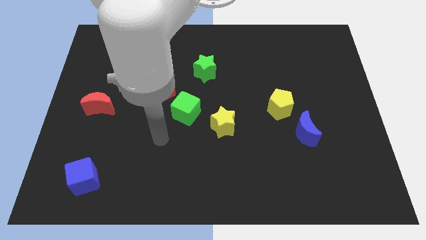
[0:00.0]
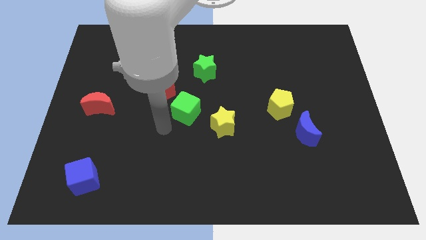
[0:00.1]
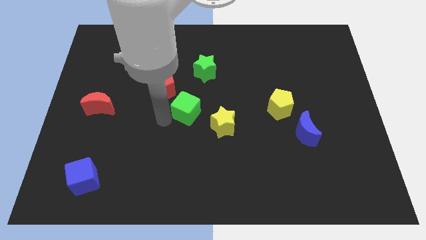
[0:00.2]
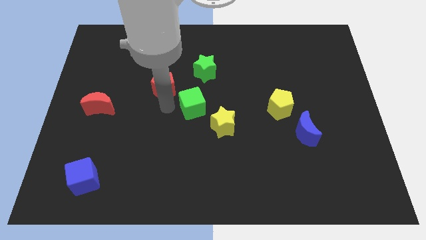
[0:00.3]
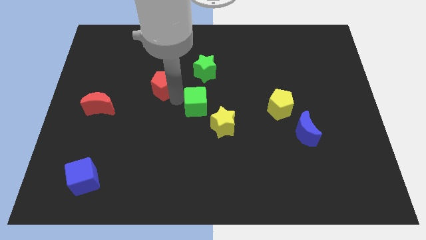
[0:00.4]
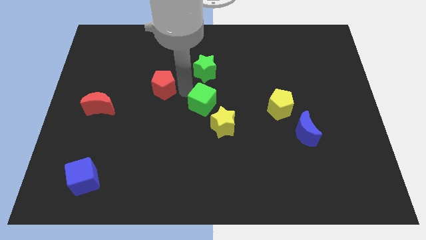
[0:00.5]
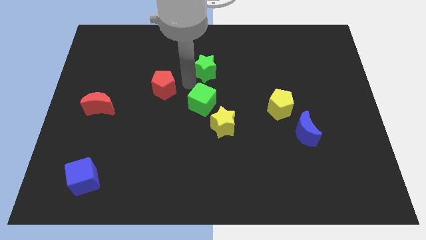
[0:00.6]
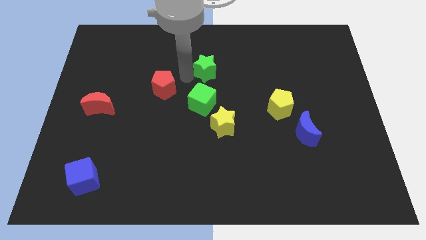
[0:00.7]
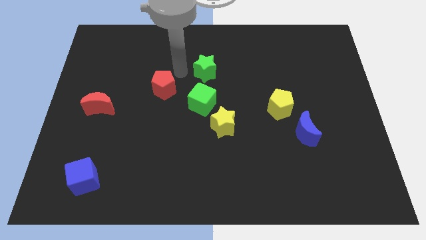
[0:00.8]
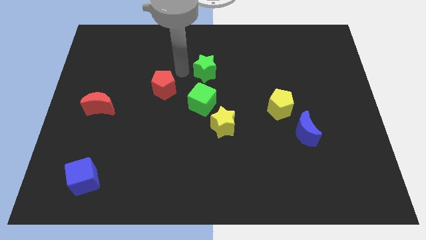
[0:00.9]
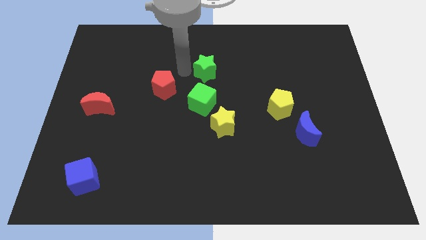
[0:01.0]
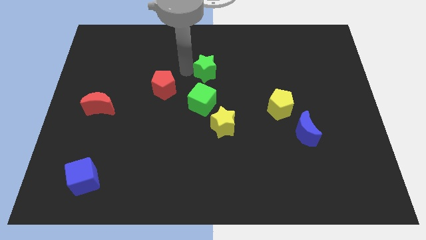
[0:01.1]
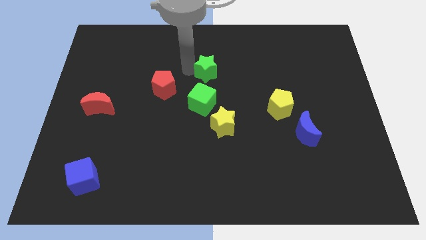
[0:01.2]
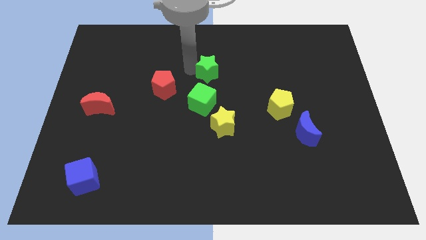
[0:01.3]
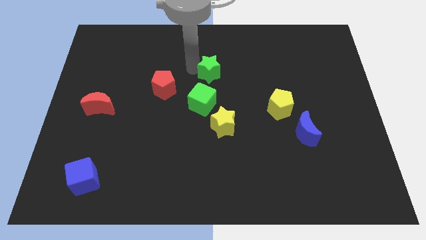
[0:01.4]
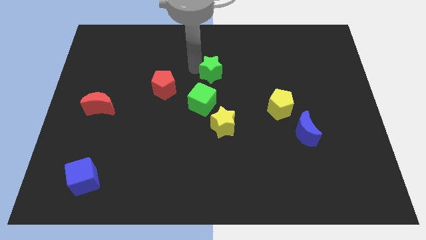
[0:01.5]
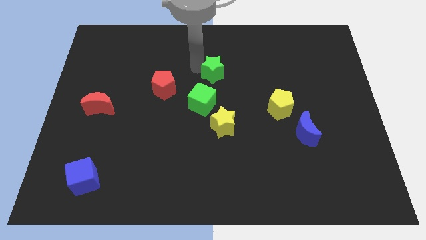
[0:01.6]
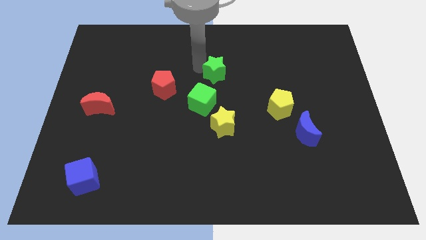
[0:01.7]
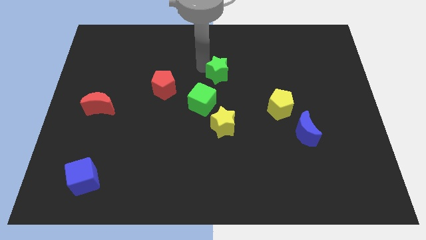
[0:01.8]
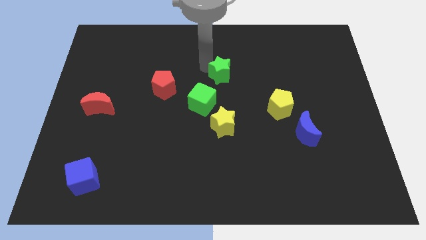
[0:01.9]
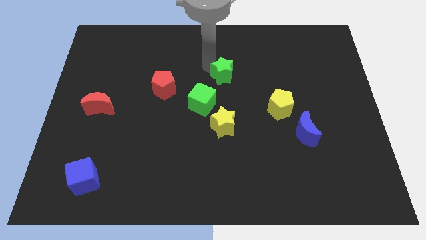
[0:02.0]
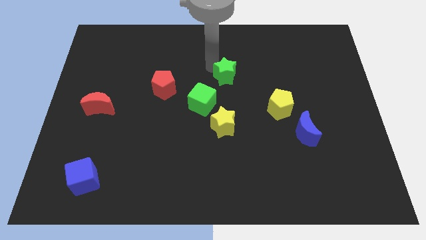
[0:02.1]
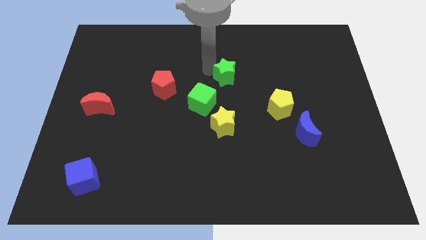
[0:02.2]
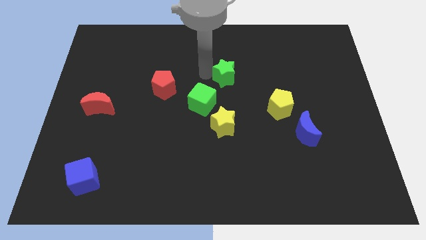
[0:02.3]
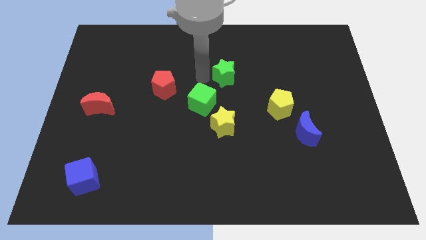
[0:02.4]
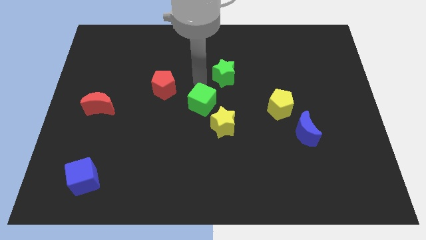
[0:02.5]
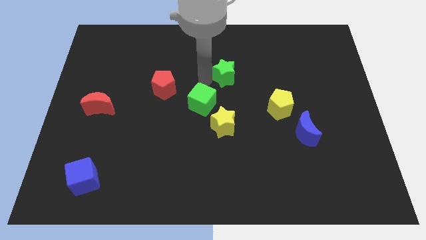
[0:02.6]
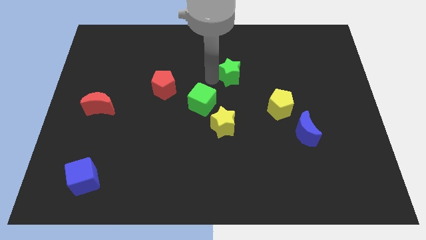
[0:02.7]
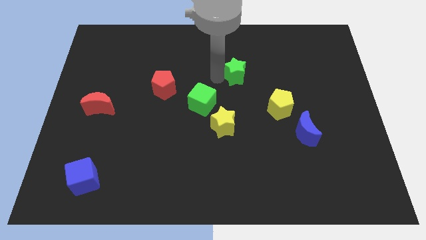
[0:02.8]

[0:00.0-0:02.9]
move the green star somewhat to the right

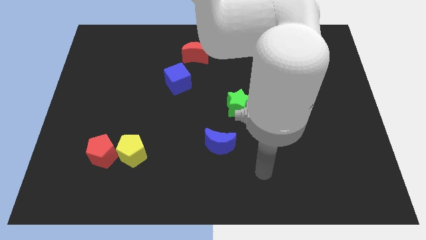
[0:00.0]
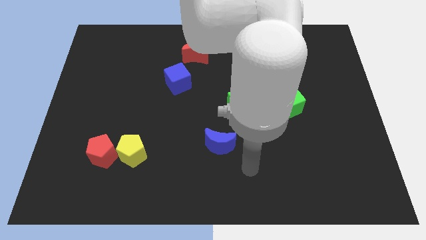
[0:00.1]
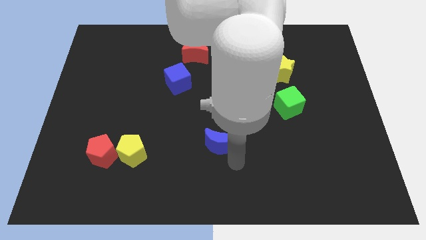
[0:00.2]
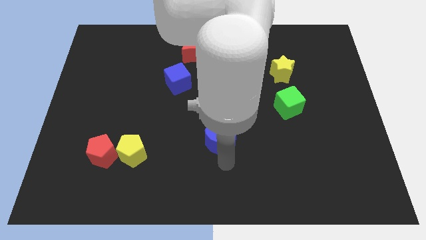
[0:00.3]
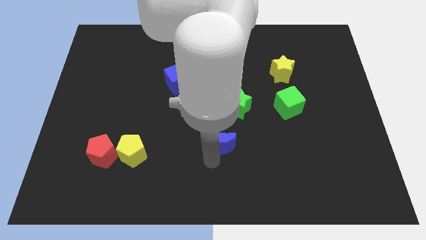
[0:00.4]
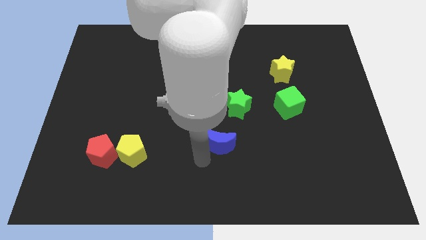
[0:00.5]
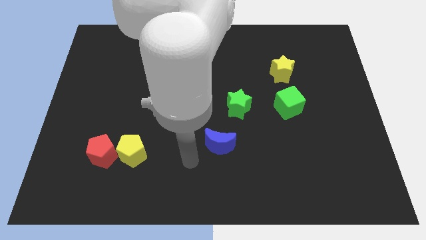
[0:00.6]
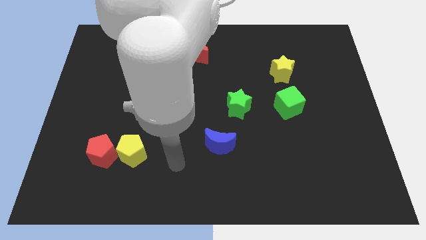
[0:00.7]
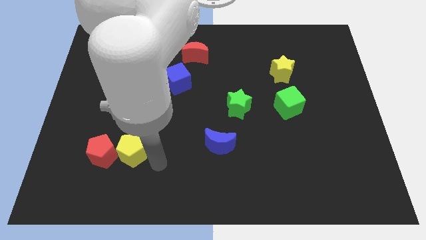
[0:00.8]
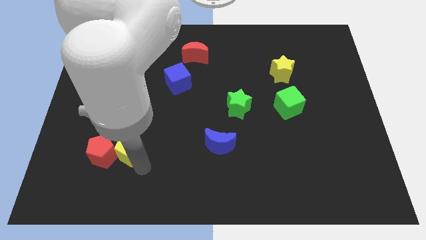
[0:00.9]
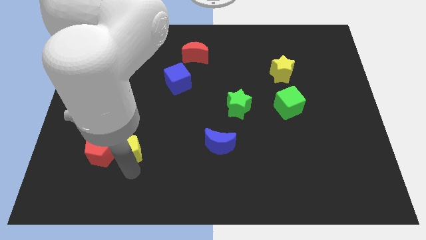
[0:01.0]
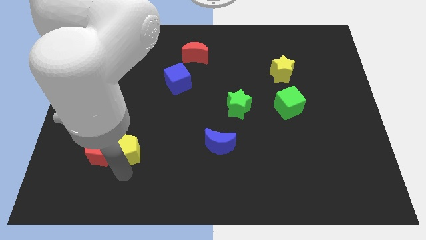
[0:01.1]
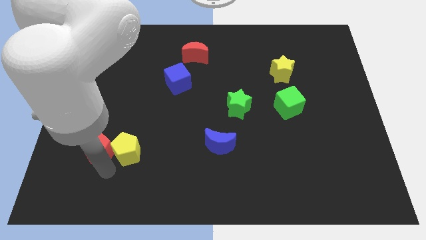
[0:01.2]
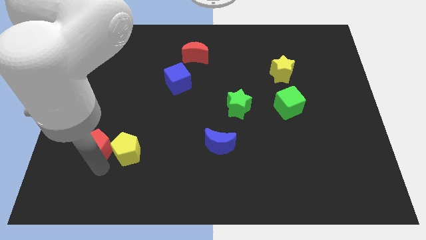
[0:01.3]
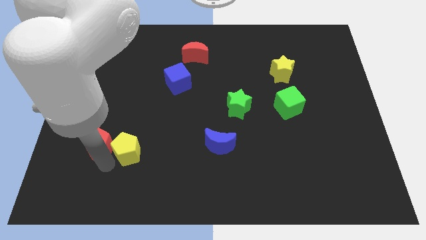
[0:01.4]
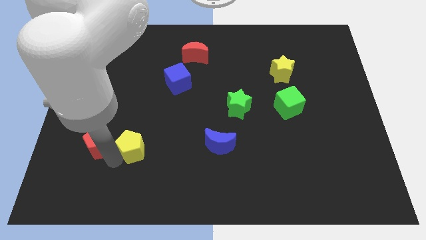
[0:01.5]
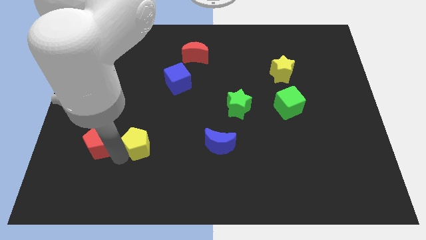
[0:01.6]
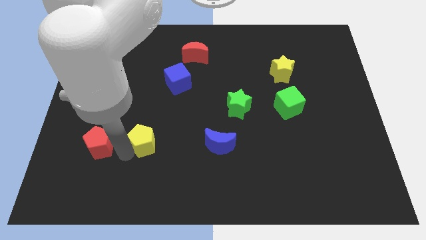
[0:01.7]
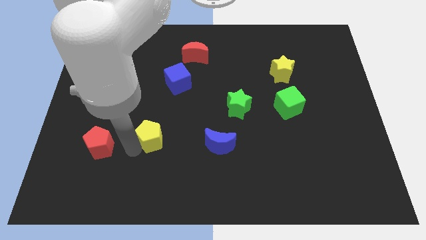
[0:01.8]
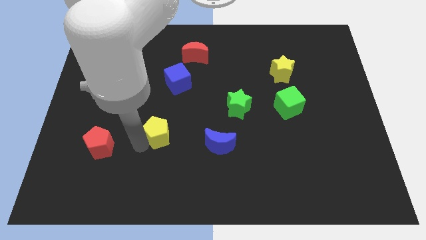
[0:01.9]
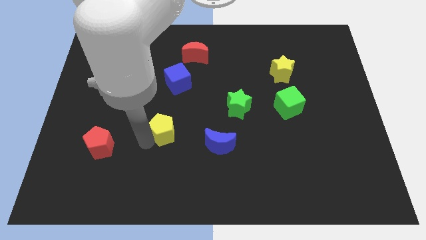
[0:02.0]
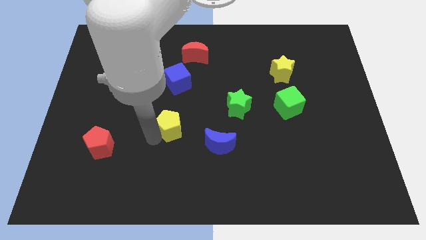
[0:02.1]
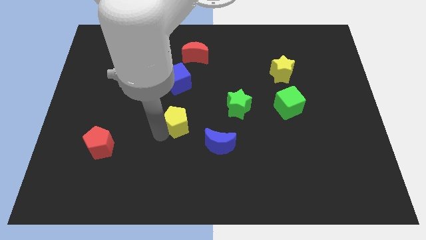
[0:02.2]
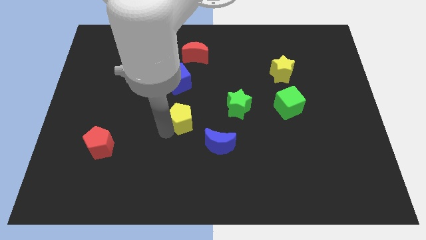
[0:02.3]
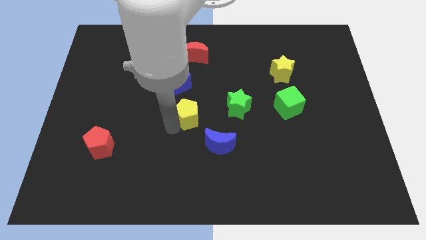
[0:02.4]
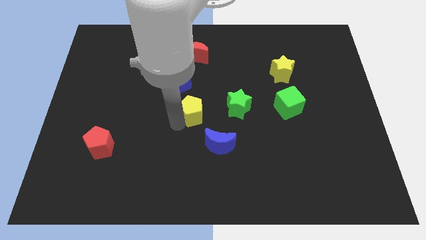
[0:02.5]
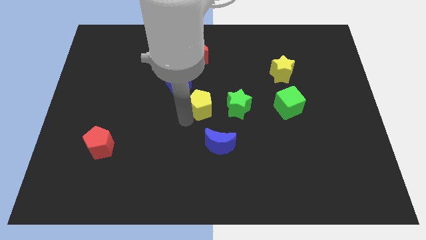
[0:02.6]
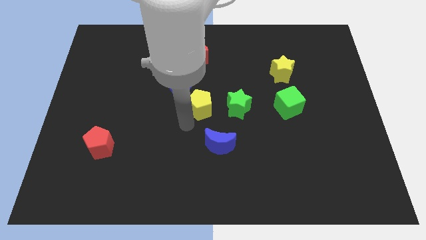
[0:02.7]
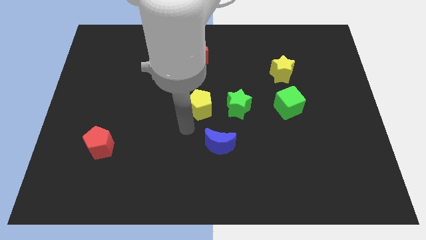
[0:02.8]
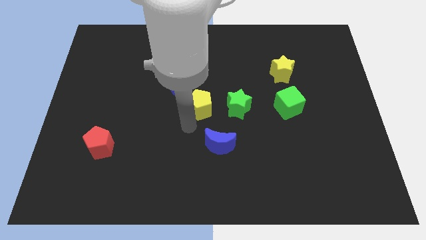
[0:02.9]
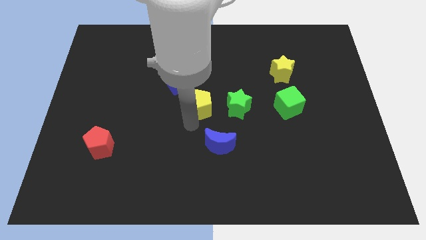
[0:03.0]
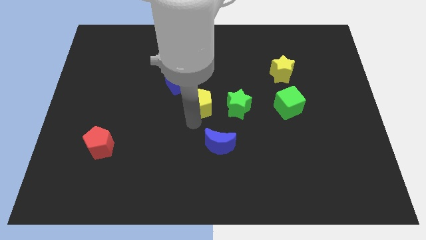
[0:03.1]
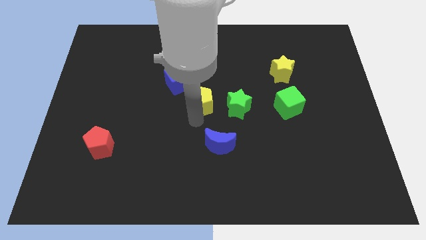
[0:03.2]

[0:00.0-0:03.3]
slide the yellow pentagon upwards and right

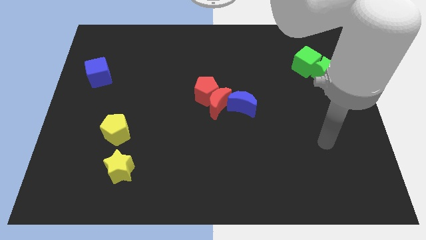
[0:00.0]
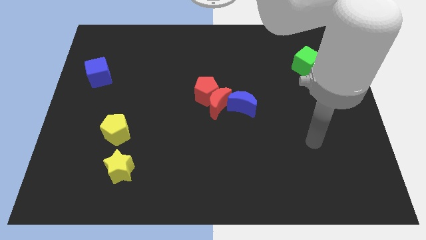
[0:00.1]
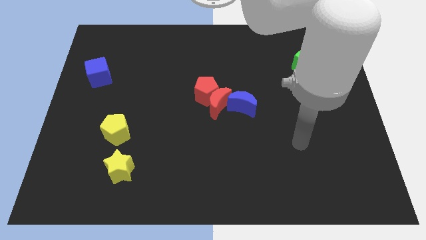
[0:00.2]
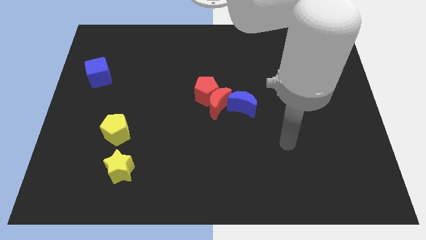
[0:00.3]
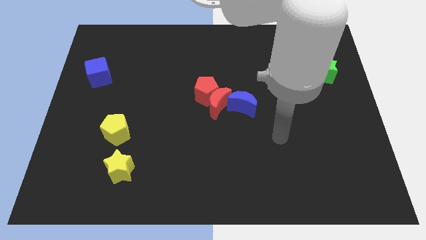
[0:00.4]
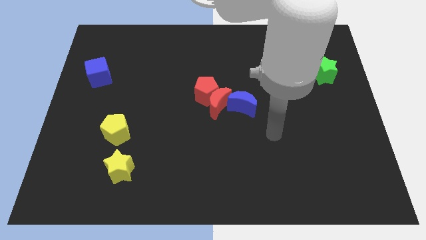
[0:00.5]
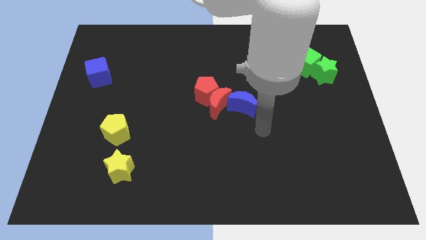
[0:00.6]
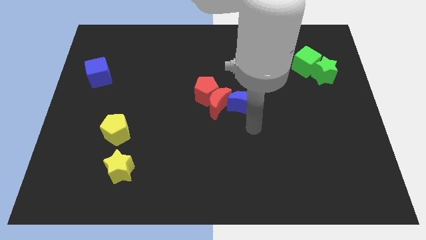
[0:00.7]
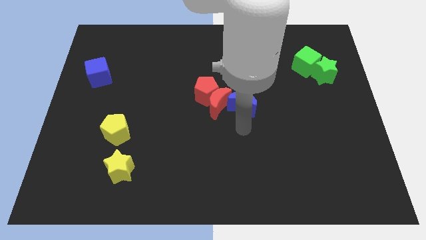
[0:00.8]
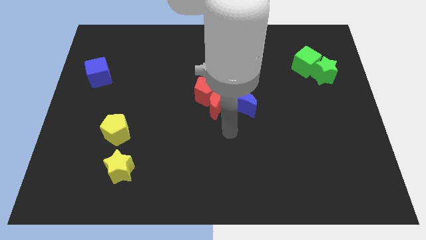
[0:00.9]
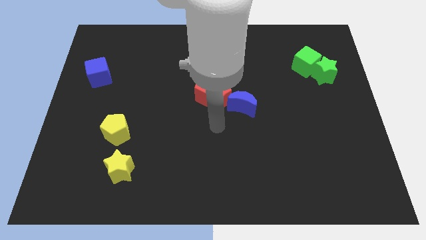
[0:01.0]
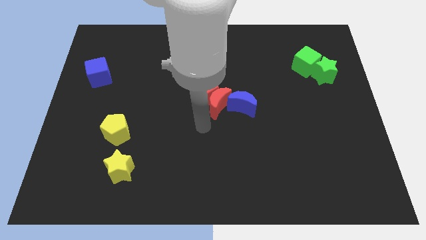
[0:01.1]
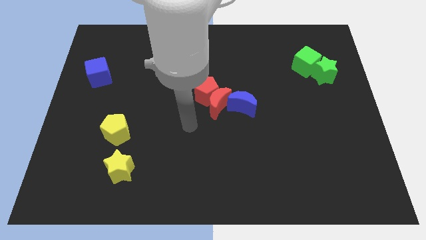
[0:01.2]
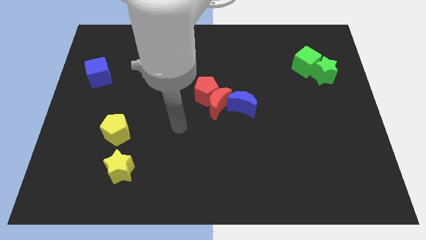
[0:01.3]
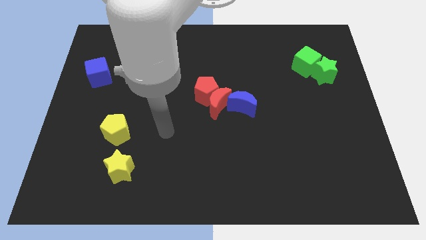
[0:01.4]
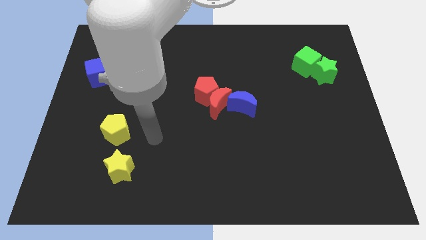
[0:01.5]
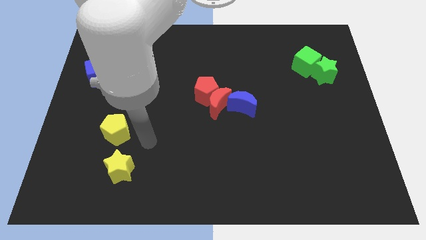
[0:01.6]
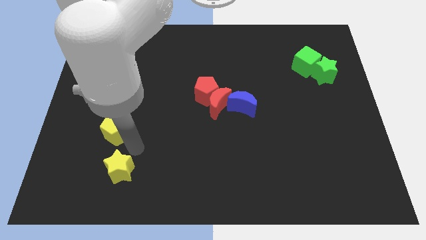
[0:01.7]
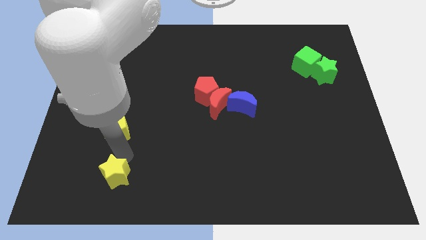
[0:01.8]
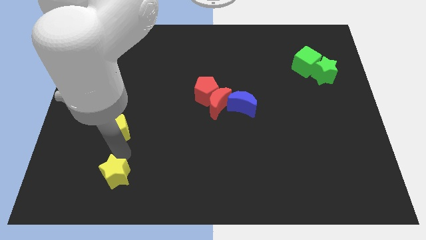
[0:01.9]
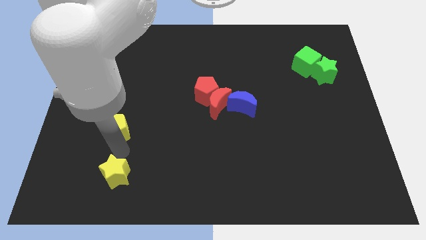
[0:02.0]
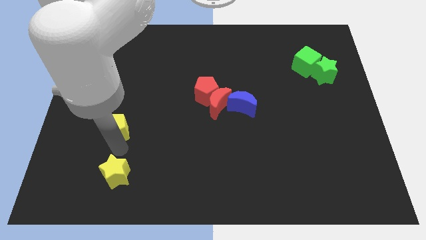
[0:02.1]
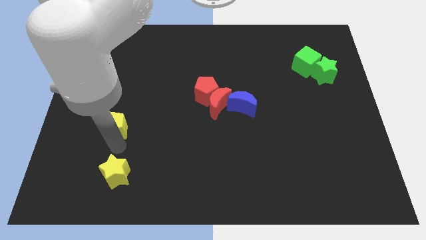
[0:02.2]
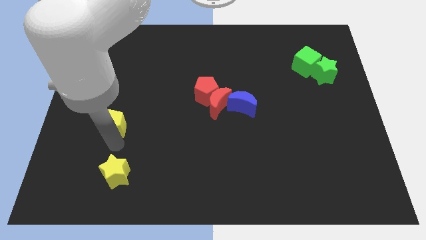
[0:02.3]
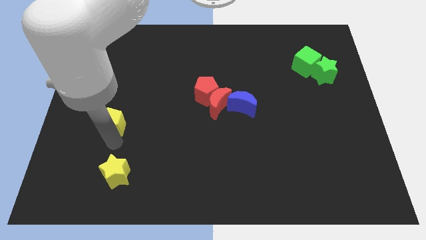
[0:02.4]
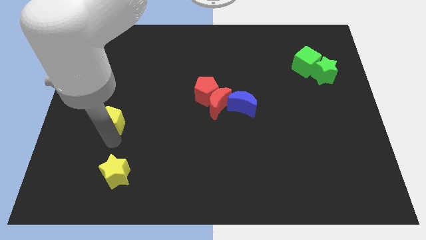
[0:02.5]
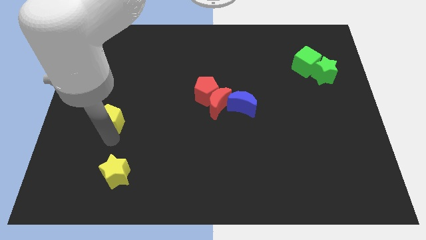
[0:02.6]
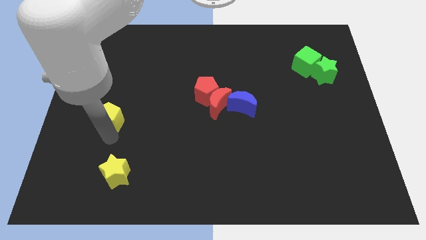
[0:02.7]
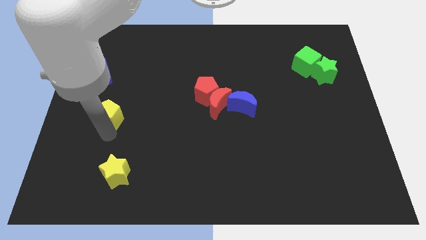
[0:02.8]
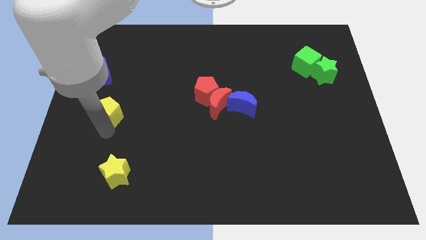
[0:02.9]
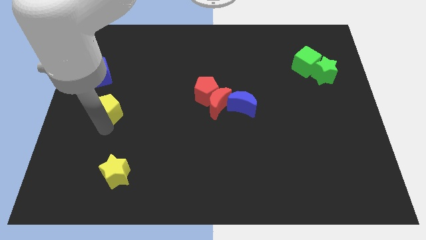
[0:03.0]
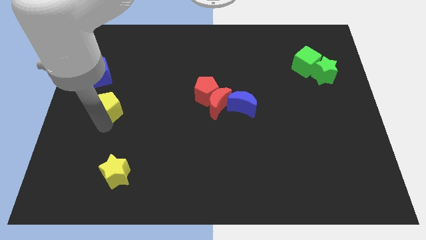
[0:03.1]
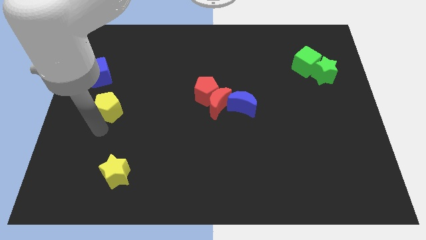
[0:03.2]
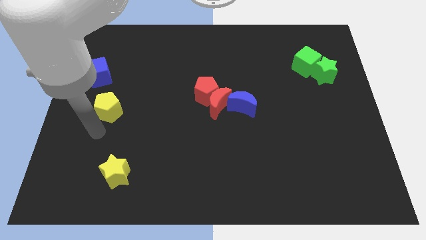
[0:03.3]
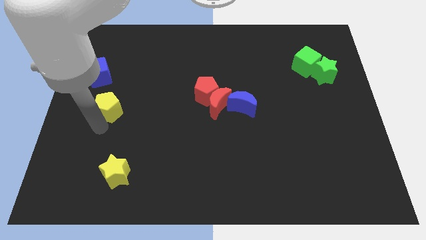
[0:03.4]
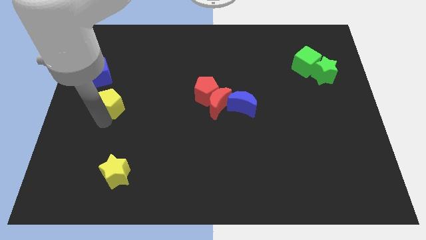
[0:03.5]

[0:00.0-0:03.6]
push the yellow pentagon up a little
